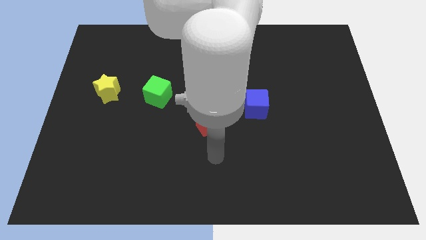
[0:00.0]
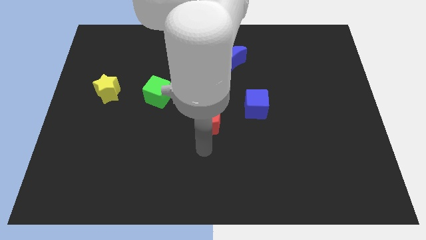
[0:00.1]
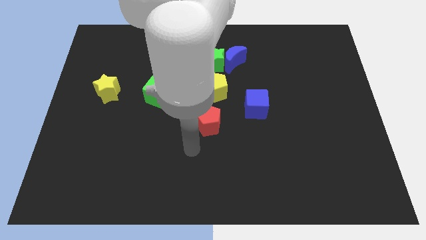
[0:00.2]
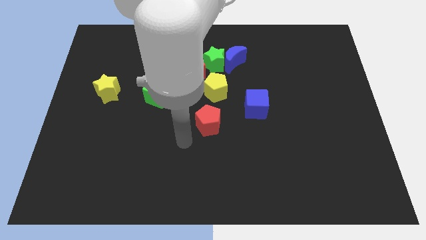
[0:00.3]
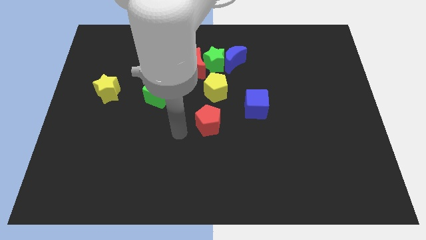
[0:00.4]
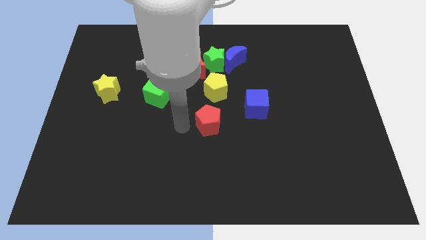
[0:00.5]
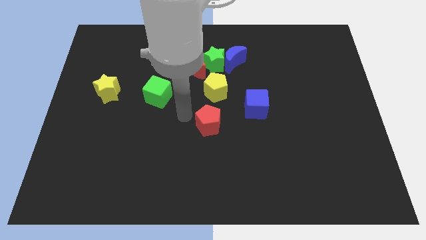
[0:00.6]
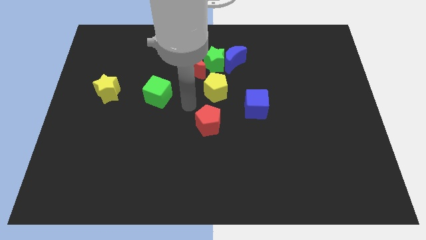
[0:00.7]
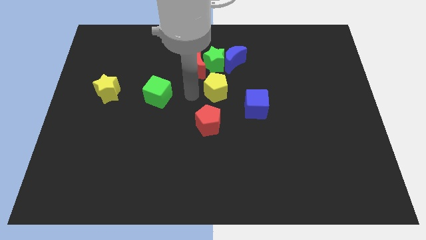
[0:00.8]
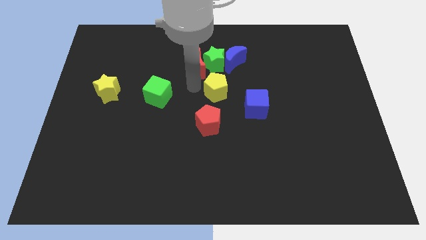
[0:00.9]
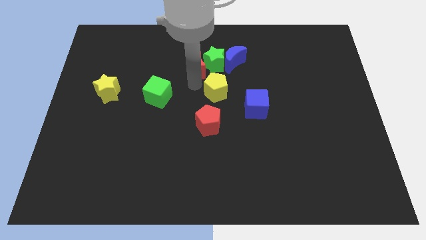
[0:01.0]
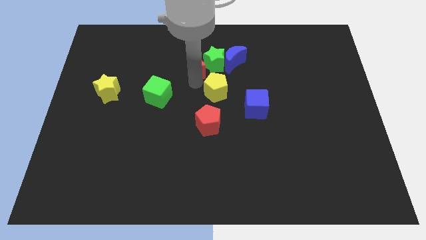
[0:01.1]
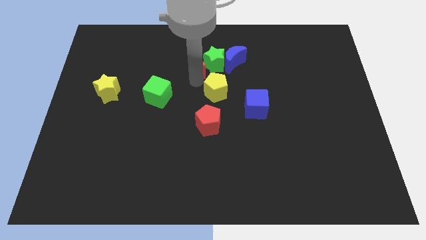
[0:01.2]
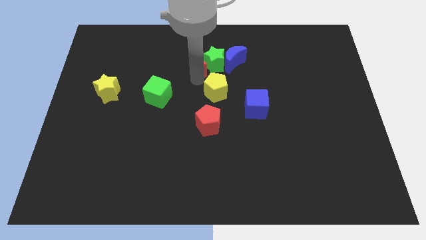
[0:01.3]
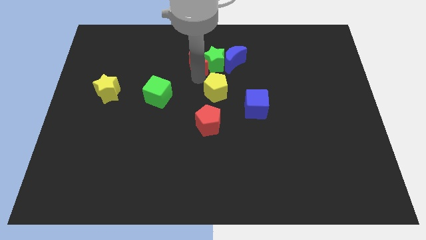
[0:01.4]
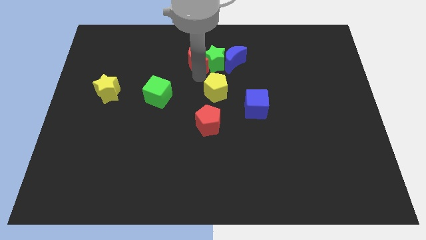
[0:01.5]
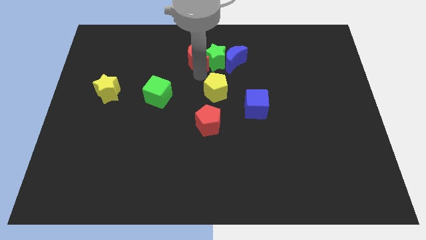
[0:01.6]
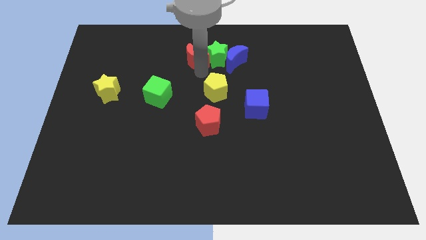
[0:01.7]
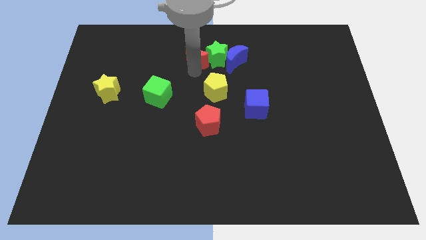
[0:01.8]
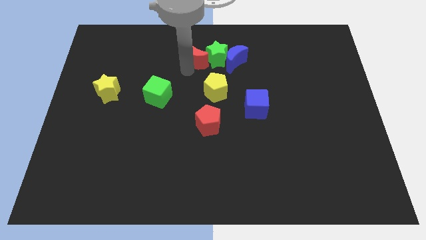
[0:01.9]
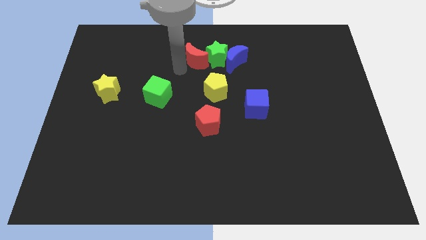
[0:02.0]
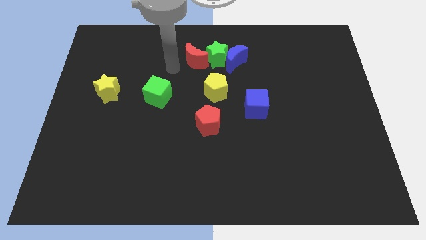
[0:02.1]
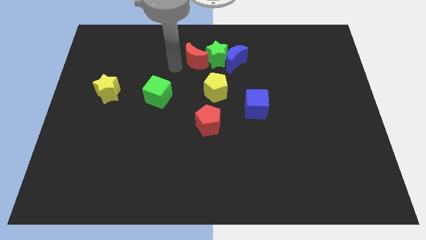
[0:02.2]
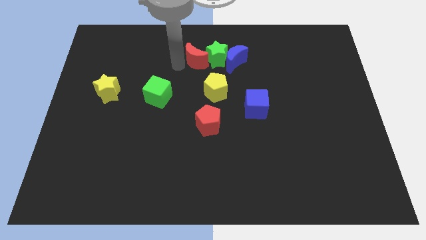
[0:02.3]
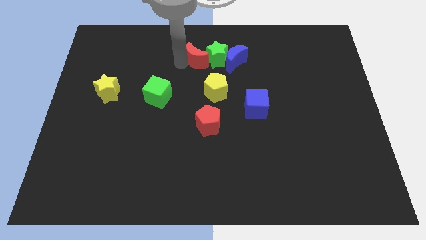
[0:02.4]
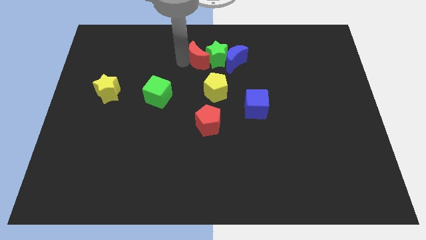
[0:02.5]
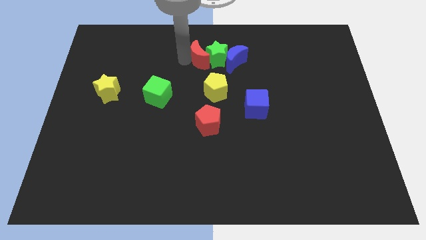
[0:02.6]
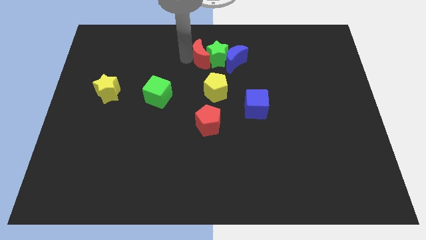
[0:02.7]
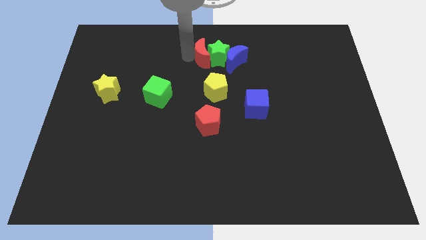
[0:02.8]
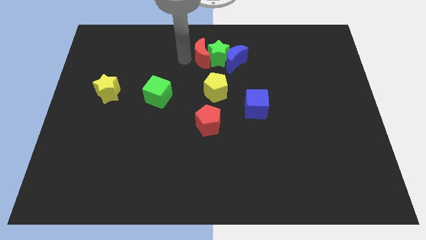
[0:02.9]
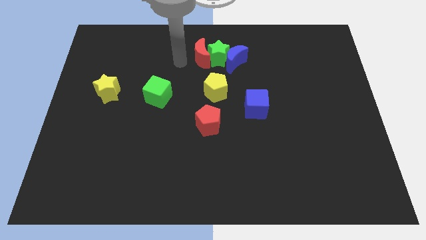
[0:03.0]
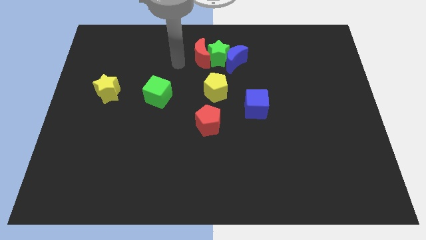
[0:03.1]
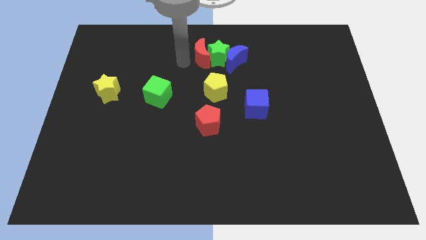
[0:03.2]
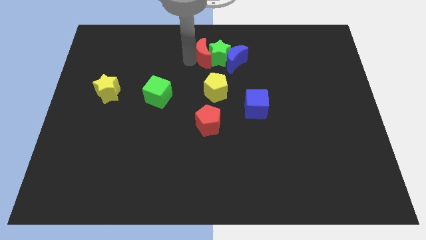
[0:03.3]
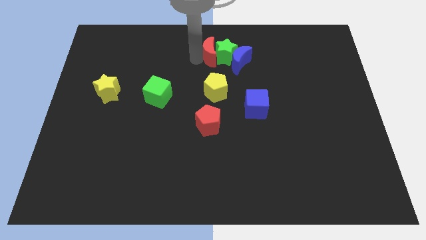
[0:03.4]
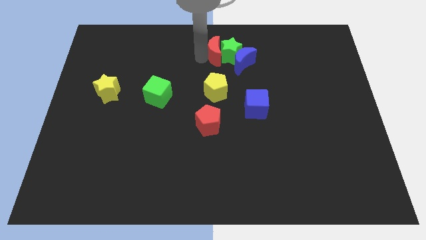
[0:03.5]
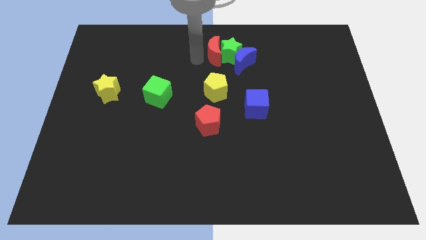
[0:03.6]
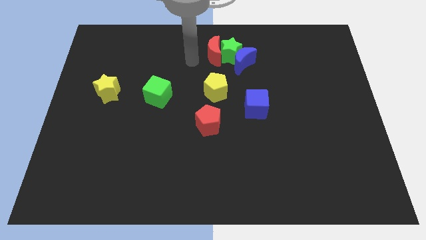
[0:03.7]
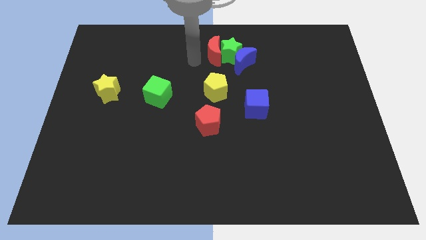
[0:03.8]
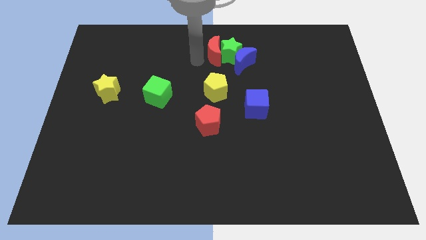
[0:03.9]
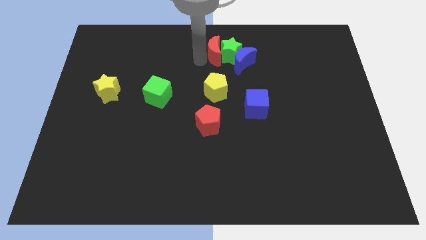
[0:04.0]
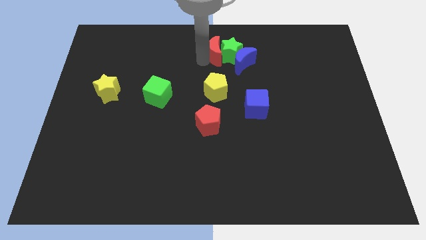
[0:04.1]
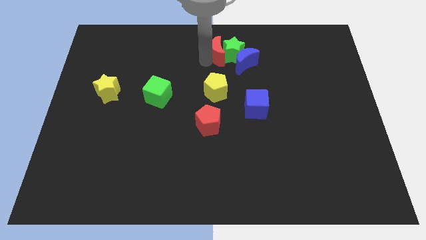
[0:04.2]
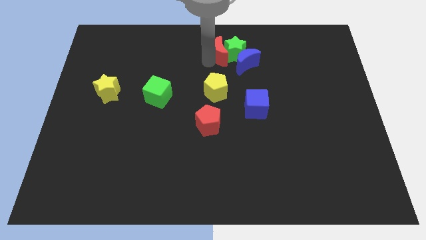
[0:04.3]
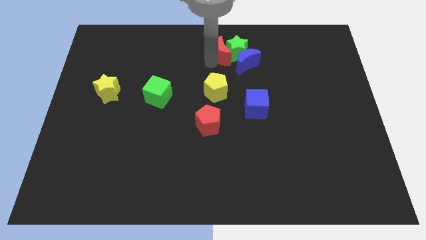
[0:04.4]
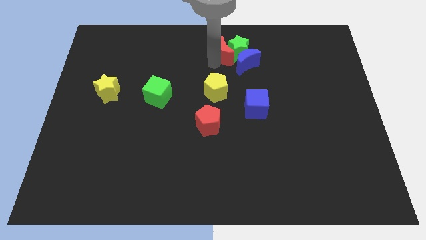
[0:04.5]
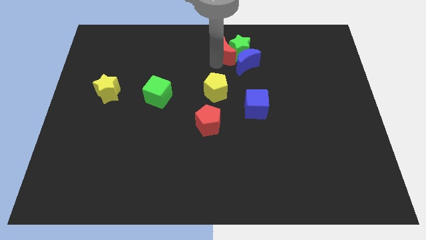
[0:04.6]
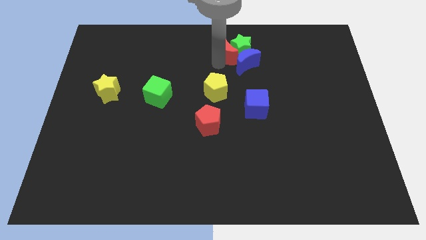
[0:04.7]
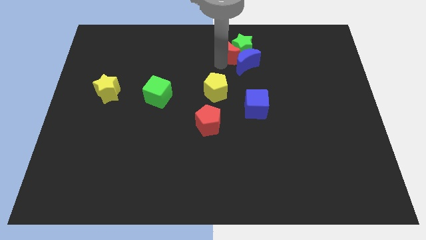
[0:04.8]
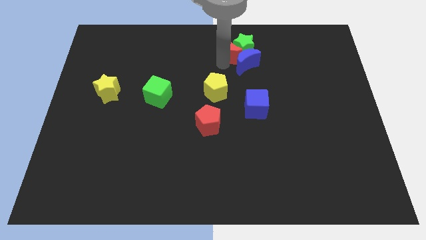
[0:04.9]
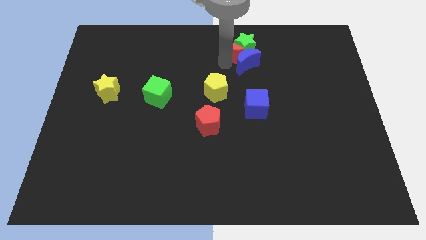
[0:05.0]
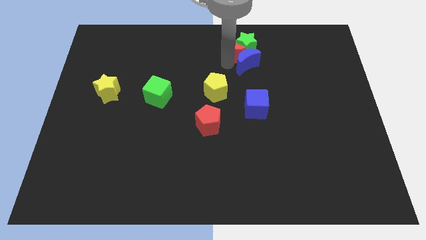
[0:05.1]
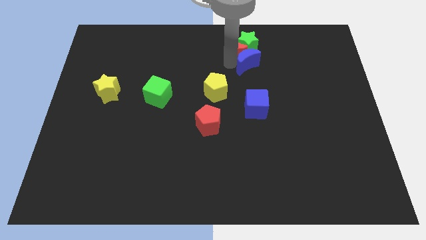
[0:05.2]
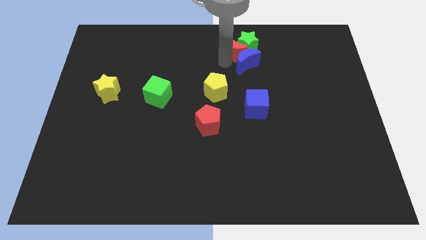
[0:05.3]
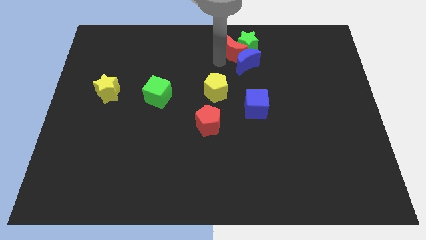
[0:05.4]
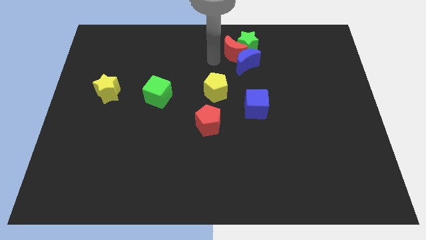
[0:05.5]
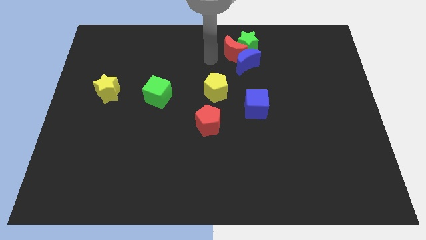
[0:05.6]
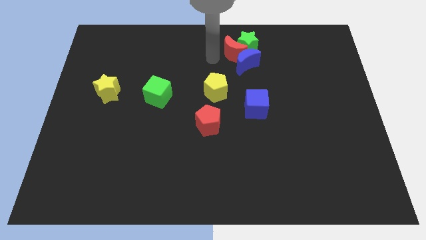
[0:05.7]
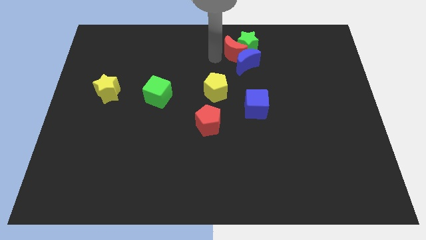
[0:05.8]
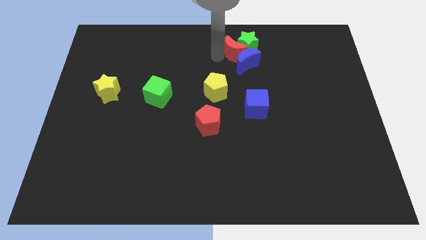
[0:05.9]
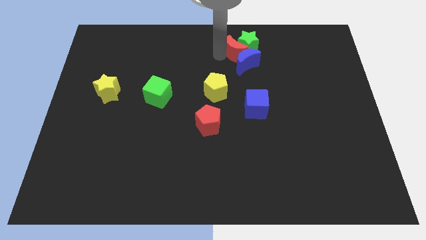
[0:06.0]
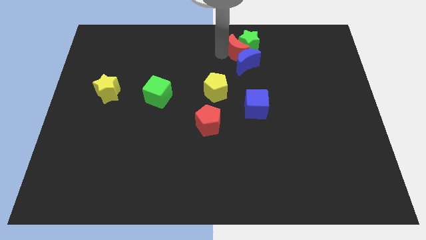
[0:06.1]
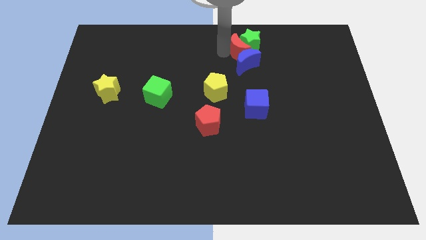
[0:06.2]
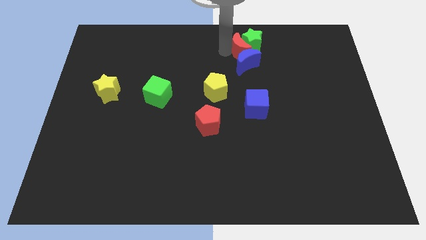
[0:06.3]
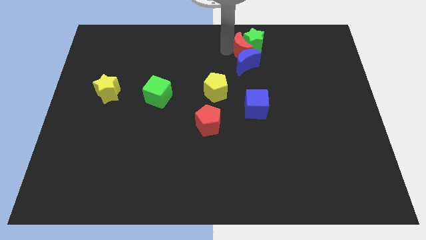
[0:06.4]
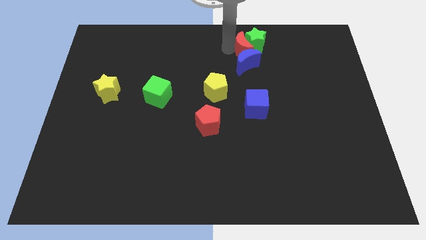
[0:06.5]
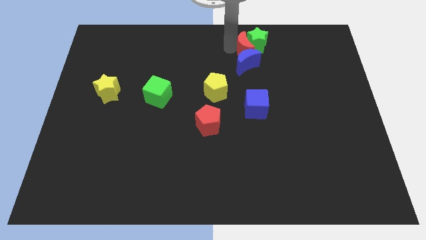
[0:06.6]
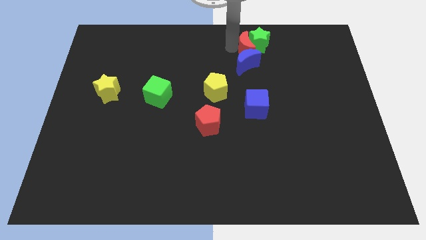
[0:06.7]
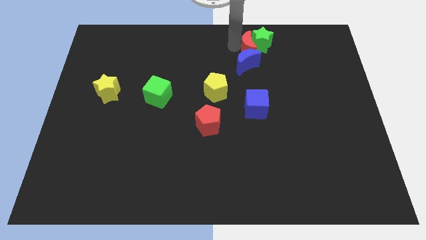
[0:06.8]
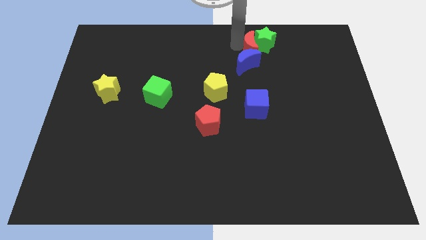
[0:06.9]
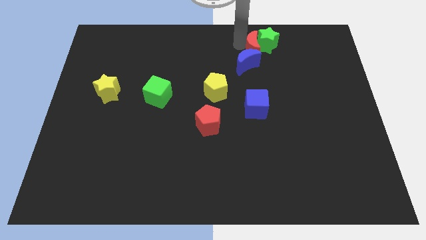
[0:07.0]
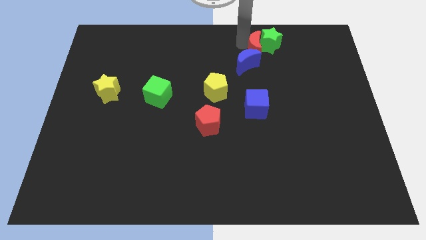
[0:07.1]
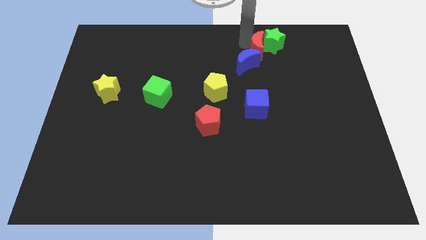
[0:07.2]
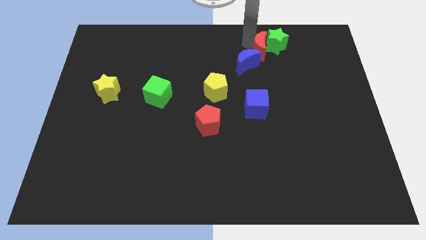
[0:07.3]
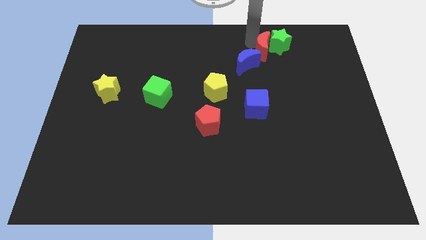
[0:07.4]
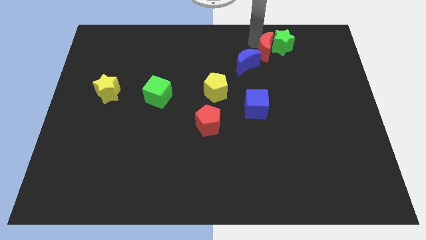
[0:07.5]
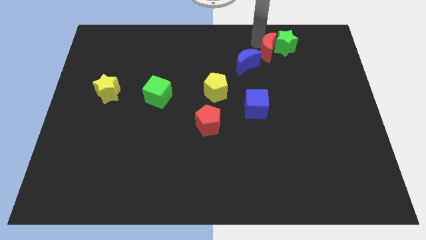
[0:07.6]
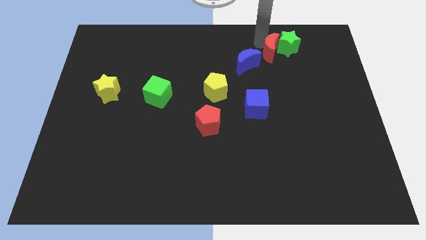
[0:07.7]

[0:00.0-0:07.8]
slide the red moon right of the blue moon

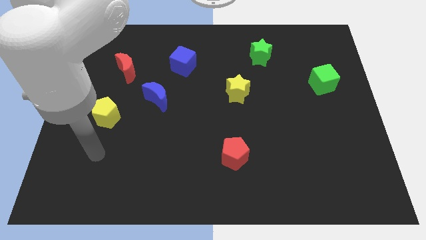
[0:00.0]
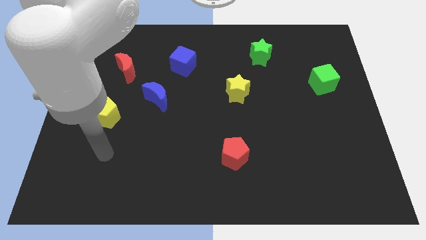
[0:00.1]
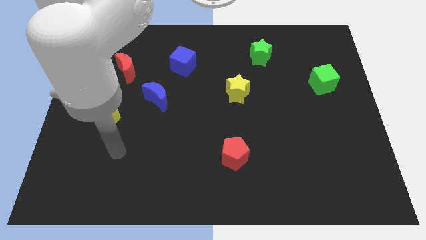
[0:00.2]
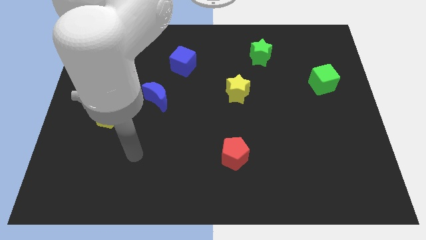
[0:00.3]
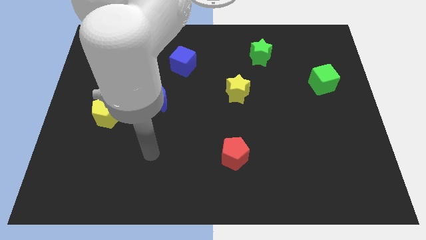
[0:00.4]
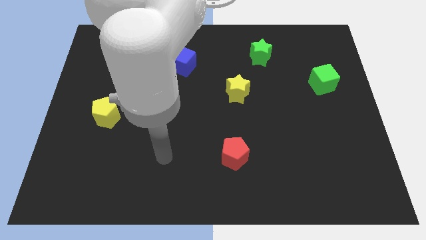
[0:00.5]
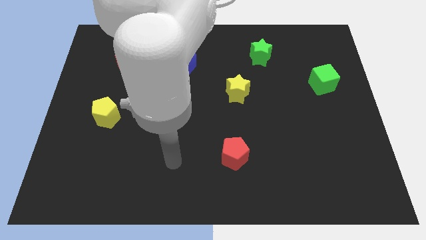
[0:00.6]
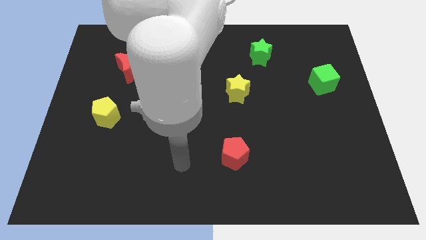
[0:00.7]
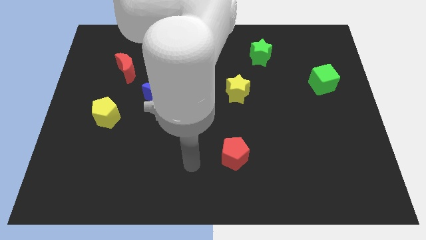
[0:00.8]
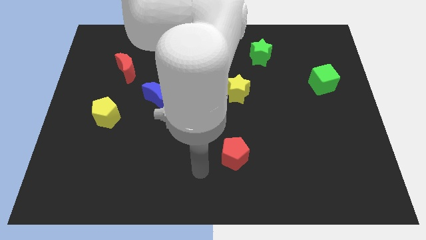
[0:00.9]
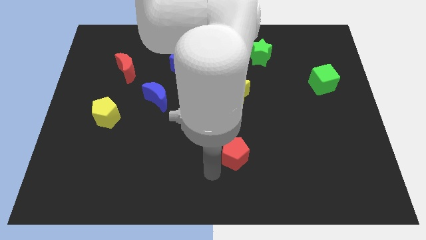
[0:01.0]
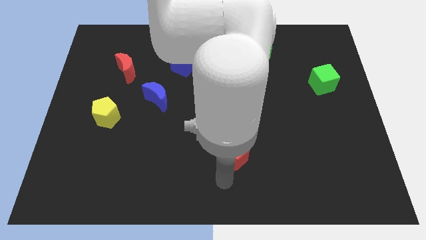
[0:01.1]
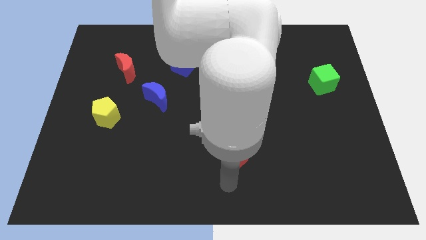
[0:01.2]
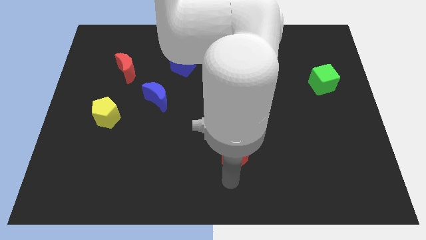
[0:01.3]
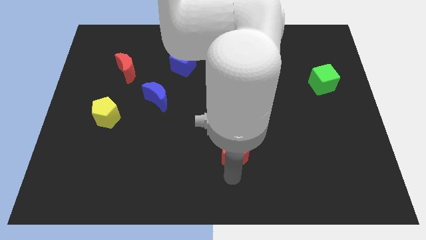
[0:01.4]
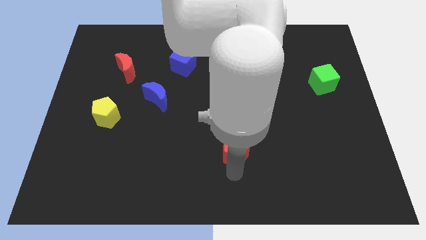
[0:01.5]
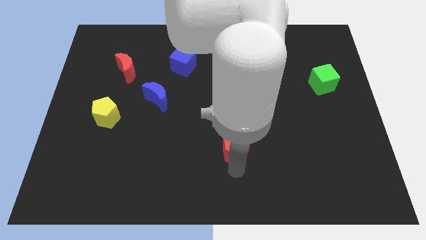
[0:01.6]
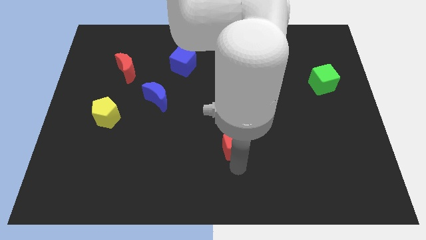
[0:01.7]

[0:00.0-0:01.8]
push the red pentagon below the yellow star
